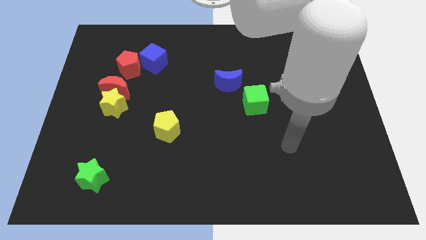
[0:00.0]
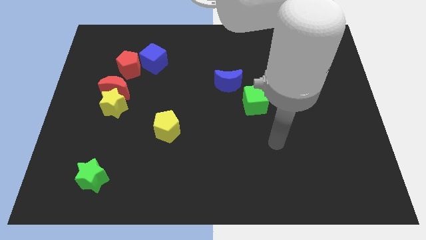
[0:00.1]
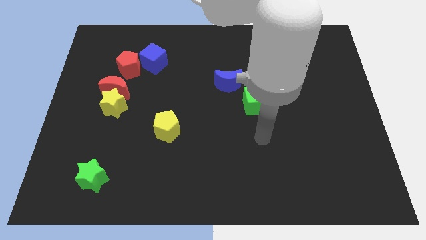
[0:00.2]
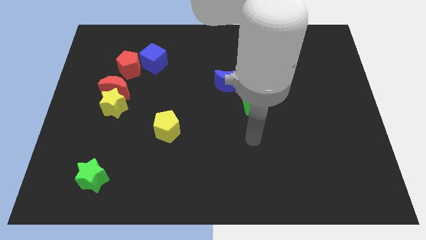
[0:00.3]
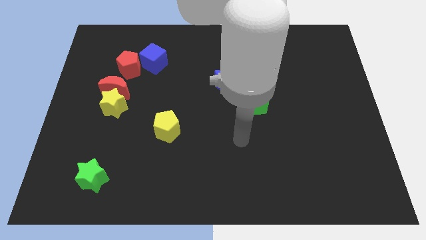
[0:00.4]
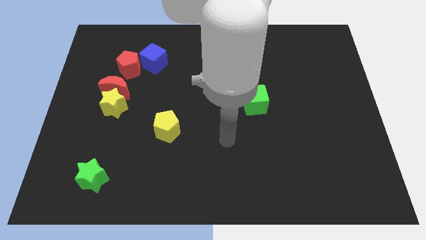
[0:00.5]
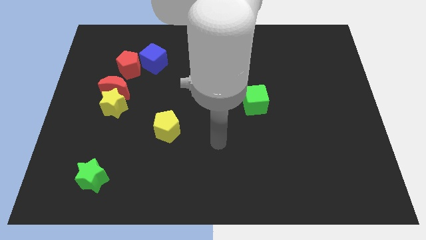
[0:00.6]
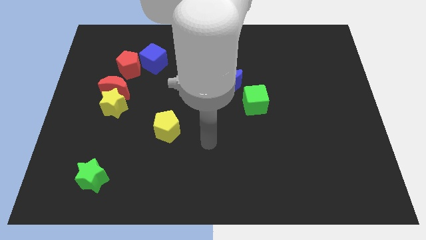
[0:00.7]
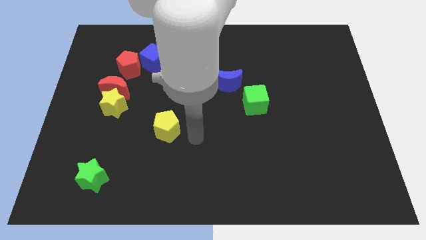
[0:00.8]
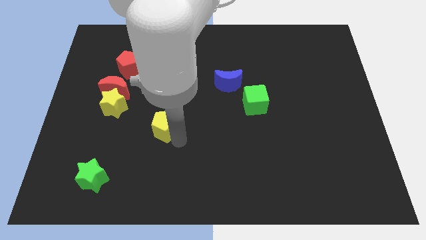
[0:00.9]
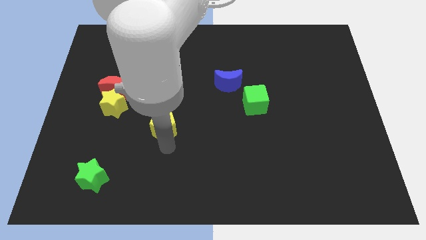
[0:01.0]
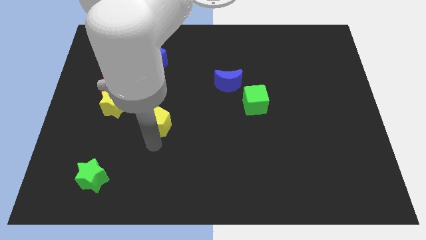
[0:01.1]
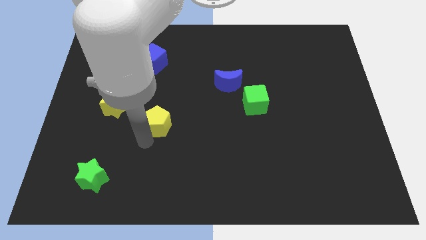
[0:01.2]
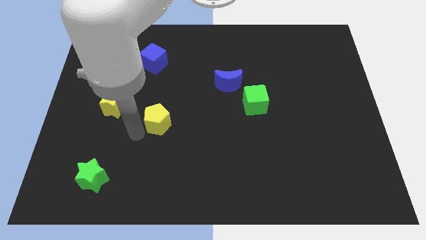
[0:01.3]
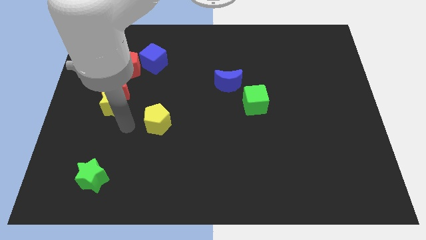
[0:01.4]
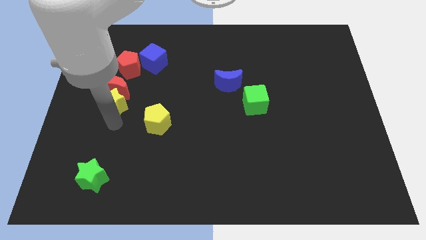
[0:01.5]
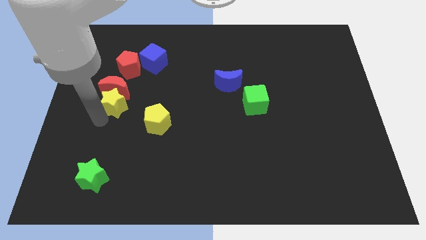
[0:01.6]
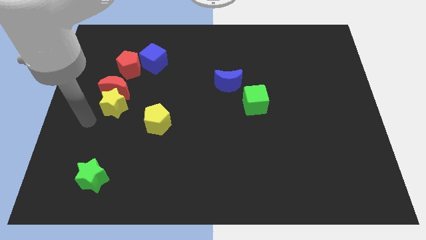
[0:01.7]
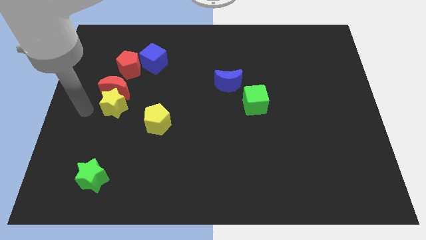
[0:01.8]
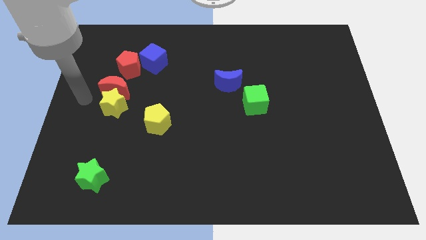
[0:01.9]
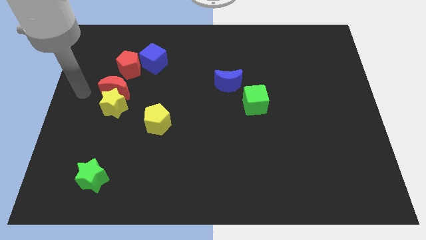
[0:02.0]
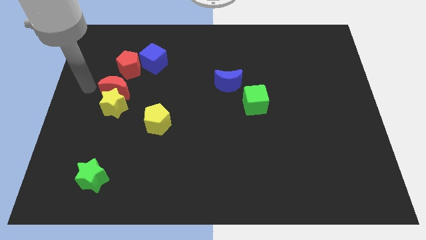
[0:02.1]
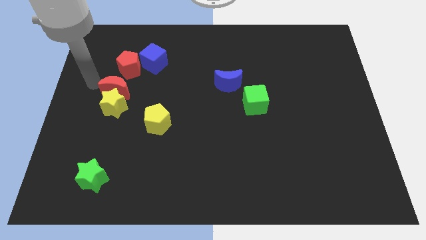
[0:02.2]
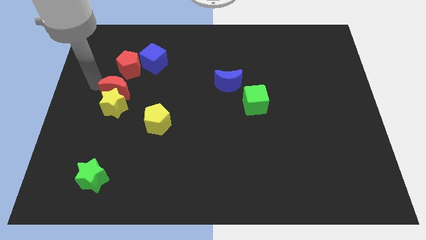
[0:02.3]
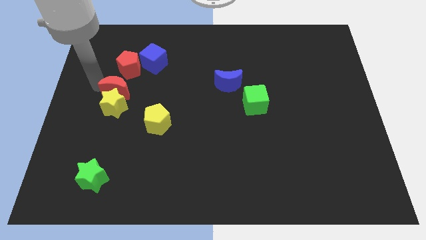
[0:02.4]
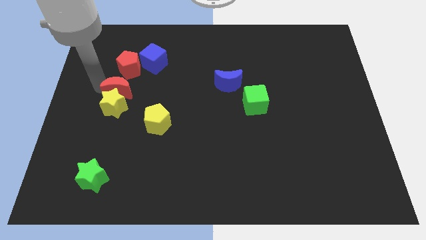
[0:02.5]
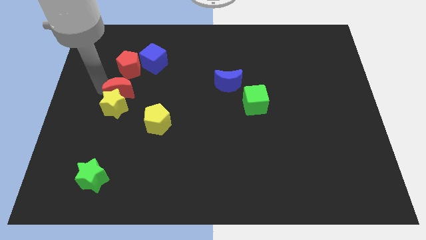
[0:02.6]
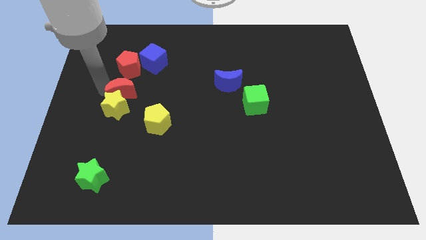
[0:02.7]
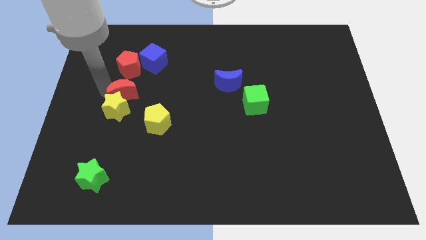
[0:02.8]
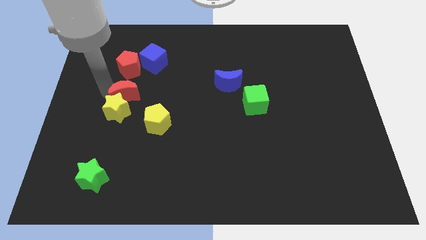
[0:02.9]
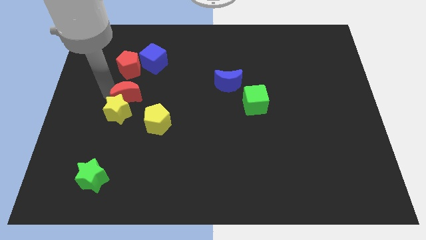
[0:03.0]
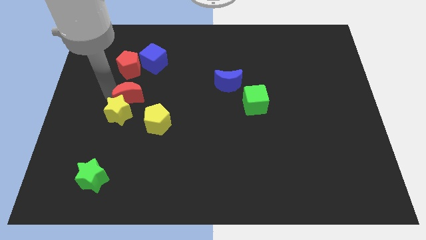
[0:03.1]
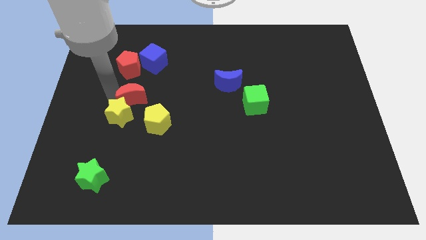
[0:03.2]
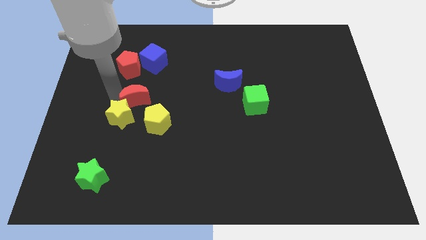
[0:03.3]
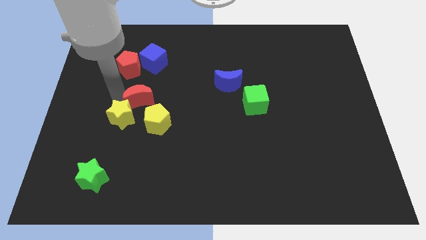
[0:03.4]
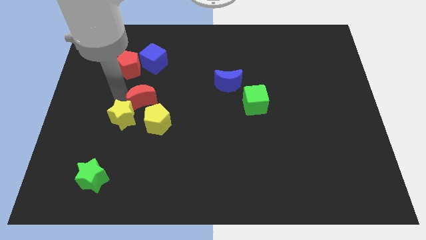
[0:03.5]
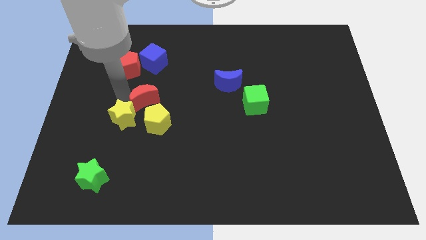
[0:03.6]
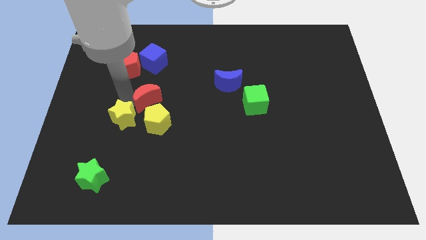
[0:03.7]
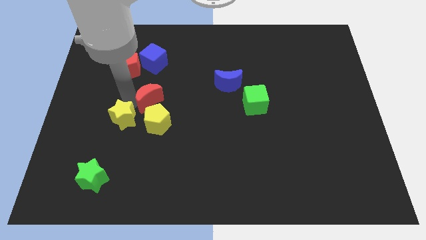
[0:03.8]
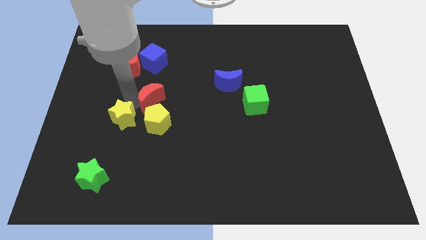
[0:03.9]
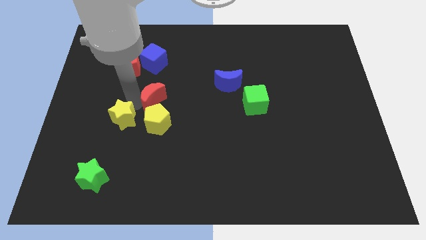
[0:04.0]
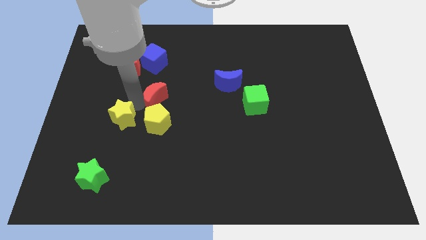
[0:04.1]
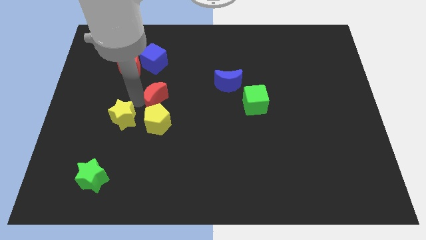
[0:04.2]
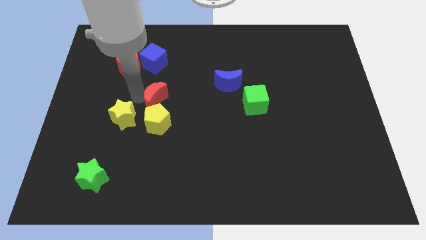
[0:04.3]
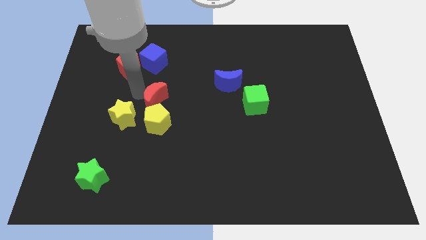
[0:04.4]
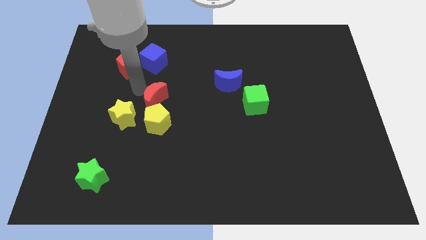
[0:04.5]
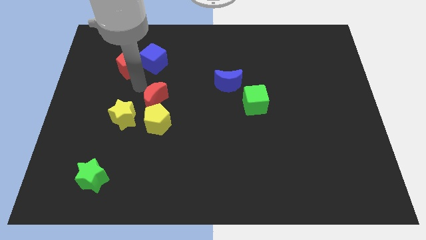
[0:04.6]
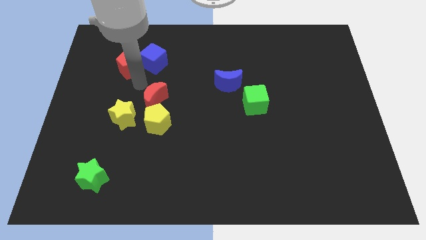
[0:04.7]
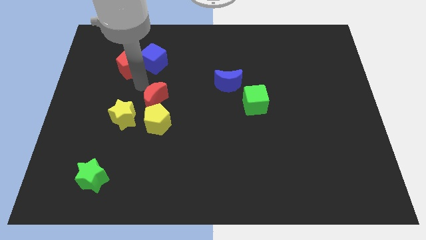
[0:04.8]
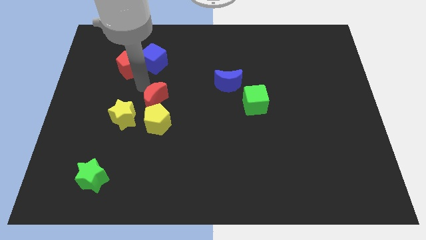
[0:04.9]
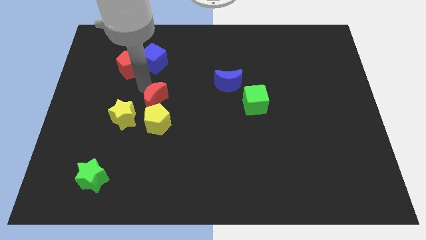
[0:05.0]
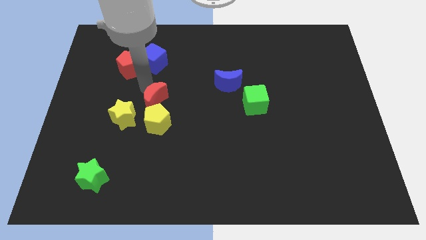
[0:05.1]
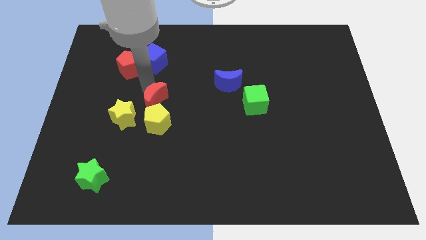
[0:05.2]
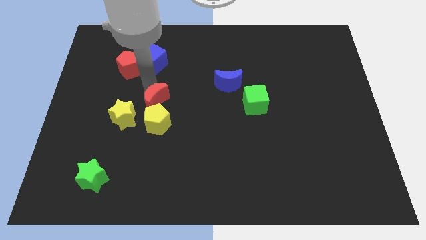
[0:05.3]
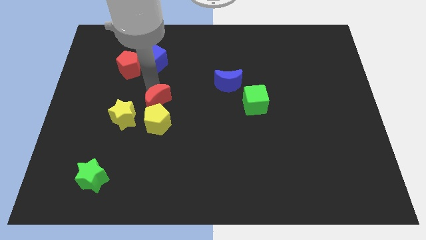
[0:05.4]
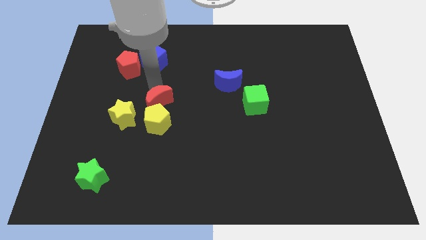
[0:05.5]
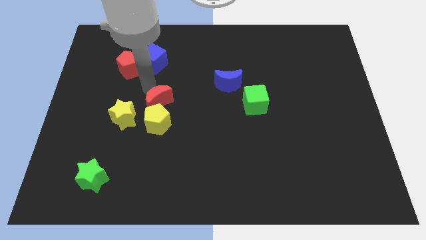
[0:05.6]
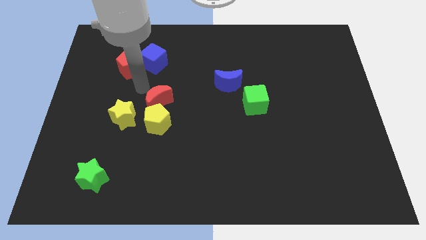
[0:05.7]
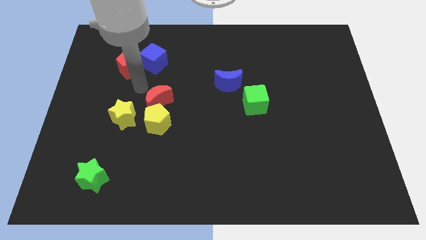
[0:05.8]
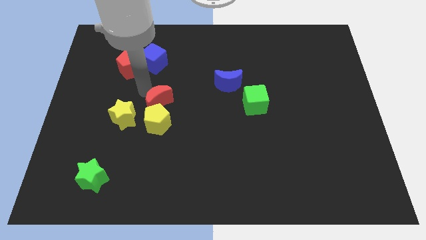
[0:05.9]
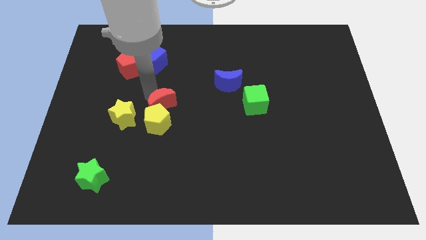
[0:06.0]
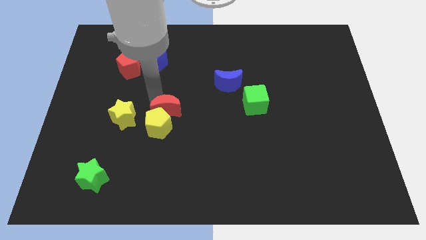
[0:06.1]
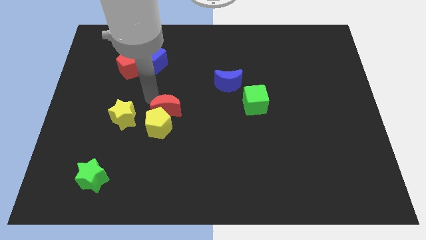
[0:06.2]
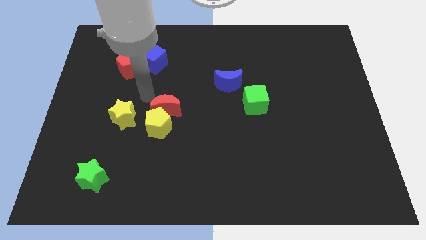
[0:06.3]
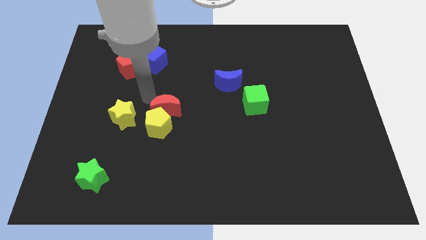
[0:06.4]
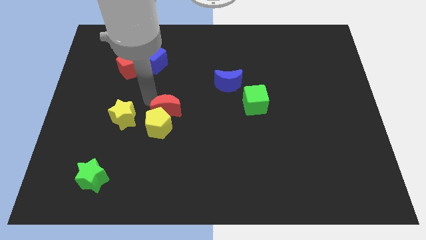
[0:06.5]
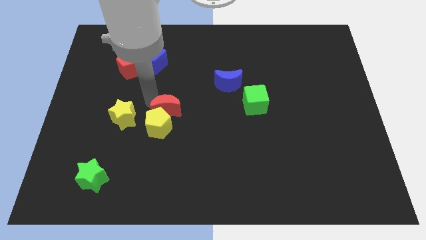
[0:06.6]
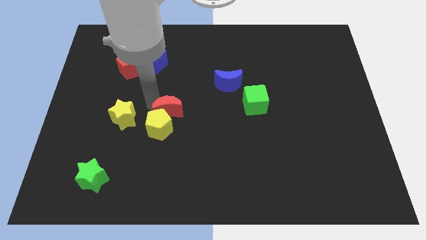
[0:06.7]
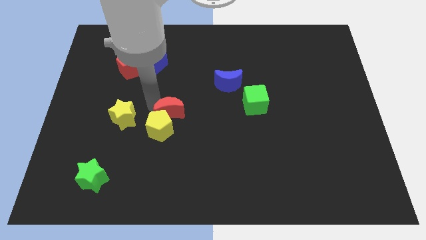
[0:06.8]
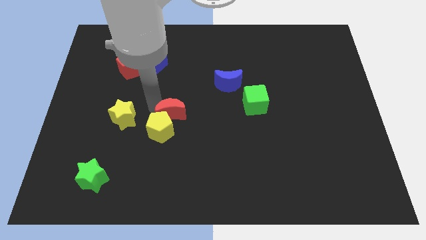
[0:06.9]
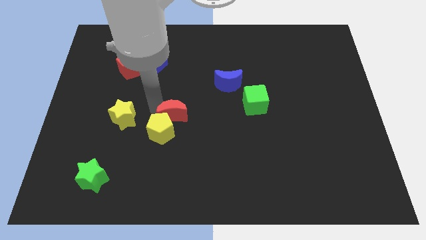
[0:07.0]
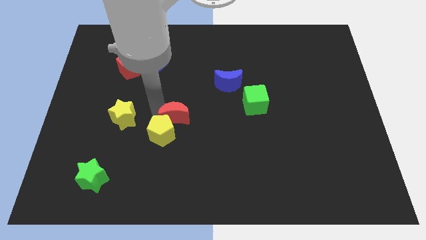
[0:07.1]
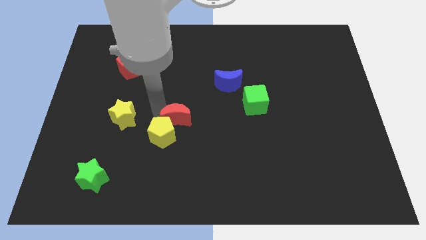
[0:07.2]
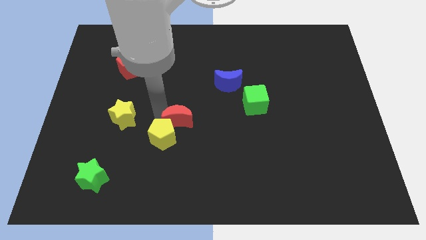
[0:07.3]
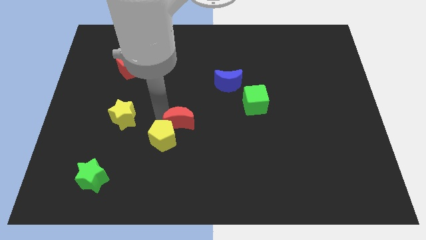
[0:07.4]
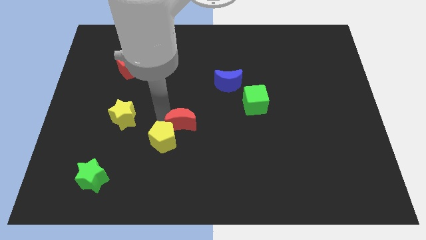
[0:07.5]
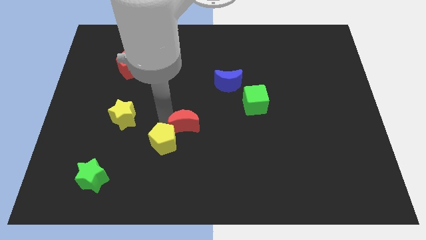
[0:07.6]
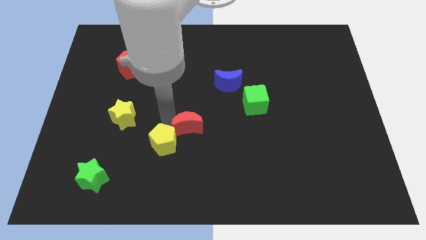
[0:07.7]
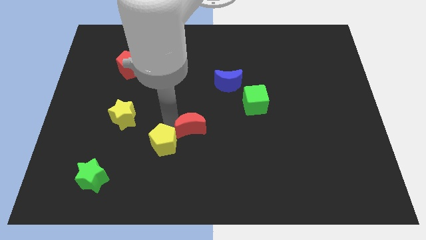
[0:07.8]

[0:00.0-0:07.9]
slide the red moon down and to the right
